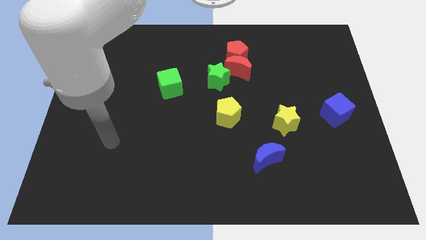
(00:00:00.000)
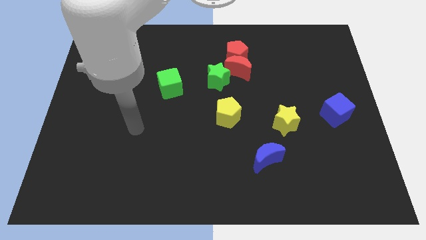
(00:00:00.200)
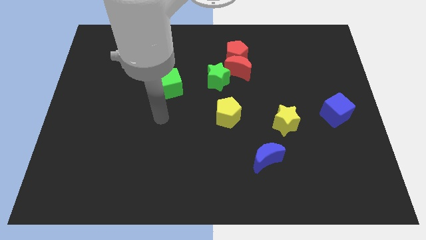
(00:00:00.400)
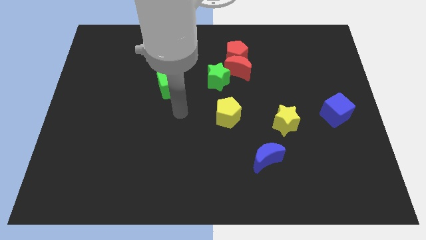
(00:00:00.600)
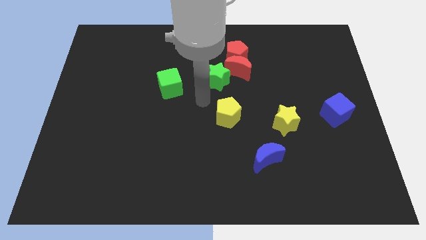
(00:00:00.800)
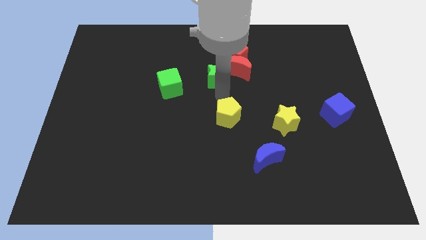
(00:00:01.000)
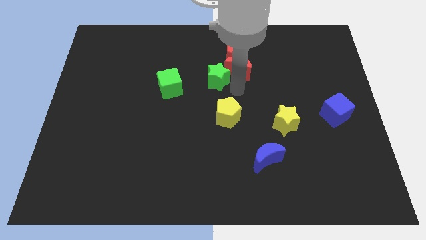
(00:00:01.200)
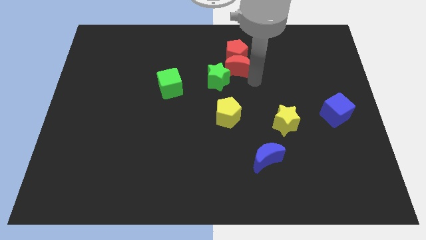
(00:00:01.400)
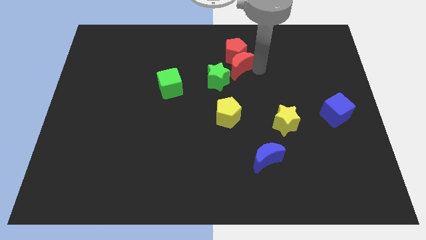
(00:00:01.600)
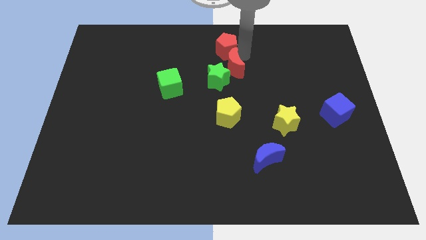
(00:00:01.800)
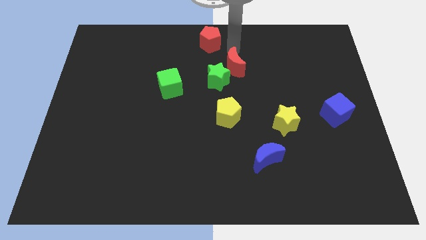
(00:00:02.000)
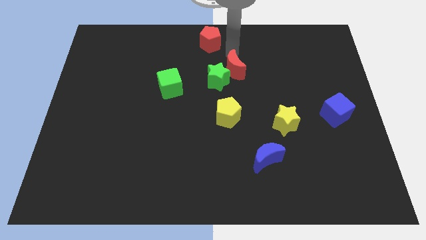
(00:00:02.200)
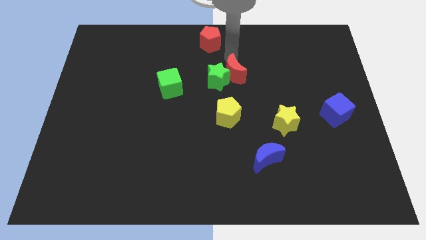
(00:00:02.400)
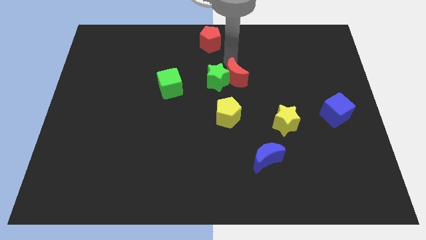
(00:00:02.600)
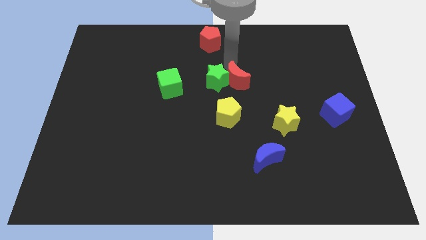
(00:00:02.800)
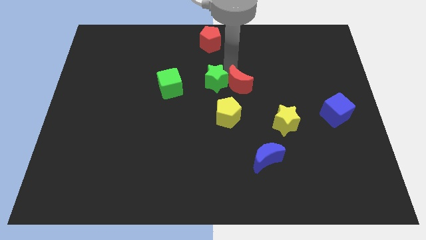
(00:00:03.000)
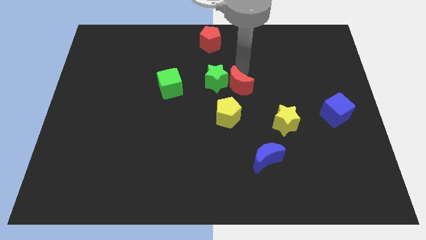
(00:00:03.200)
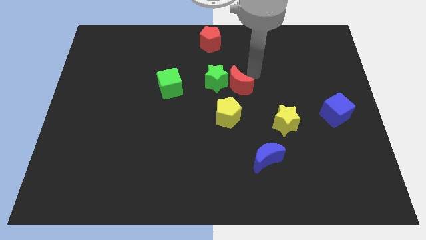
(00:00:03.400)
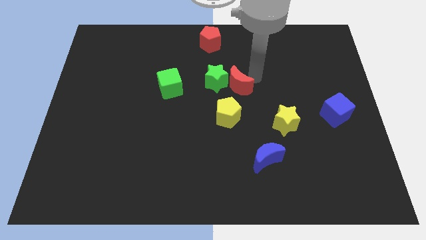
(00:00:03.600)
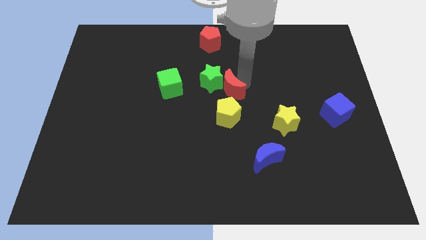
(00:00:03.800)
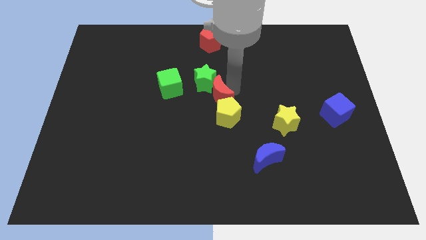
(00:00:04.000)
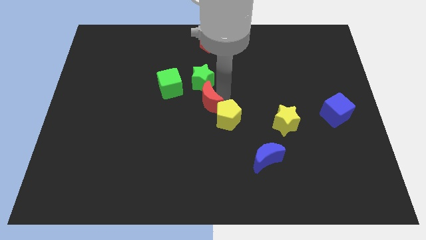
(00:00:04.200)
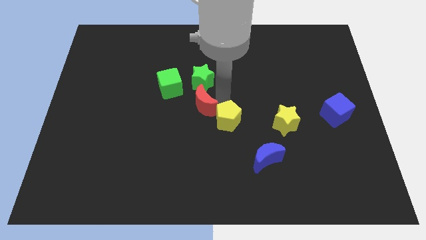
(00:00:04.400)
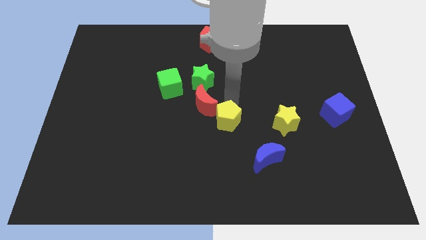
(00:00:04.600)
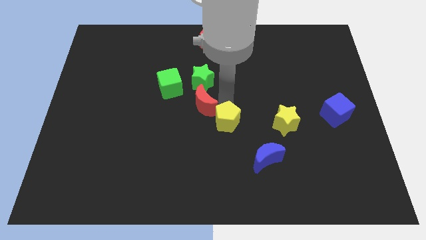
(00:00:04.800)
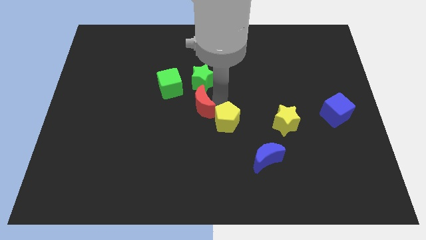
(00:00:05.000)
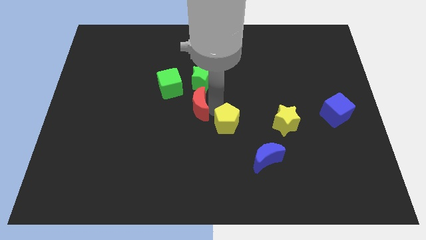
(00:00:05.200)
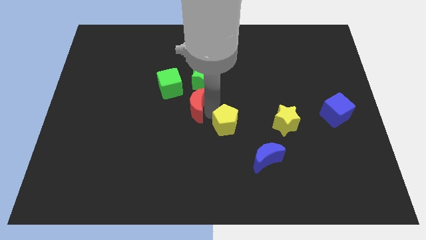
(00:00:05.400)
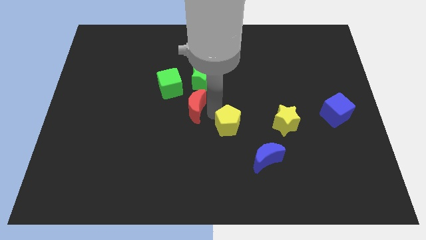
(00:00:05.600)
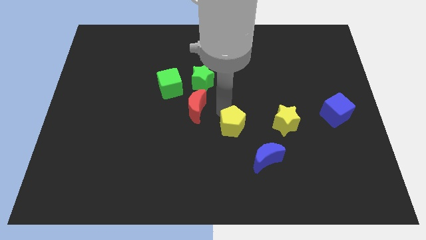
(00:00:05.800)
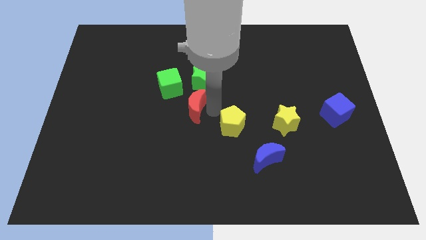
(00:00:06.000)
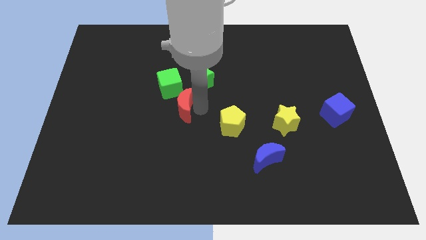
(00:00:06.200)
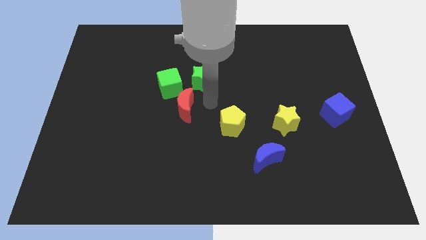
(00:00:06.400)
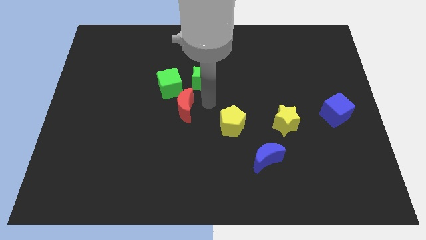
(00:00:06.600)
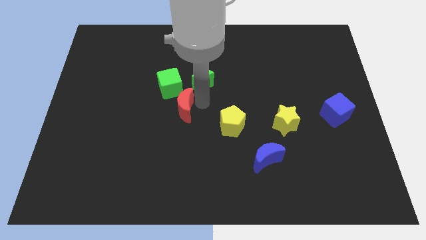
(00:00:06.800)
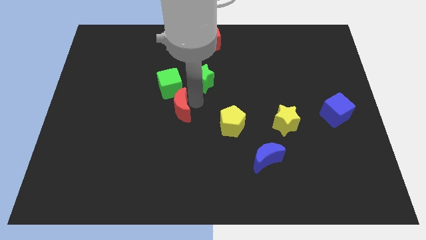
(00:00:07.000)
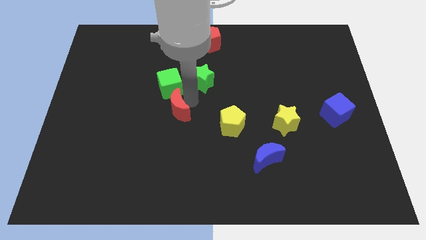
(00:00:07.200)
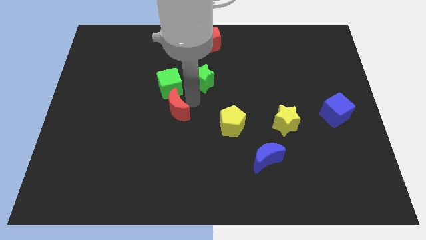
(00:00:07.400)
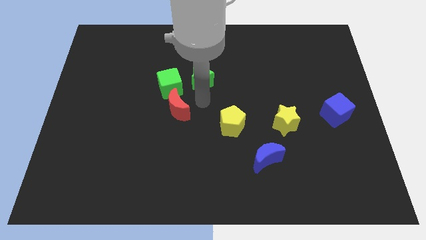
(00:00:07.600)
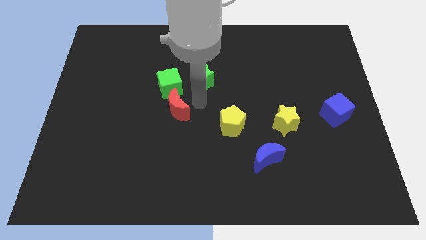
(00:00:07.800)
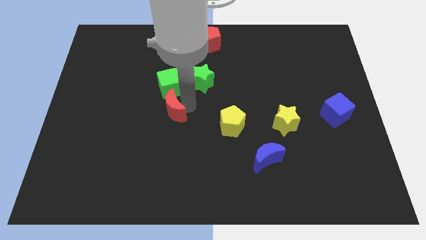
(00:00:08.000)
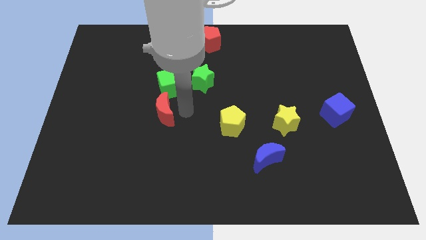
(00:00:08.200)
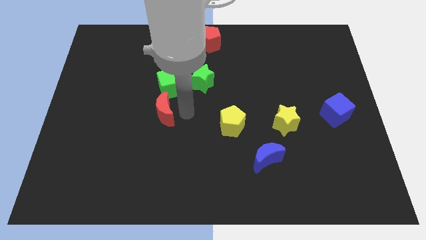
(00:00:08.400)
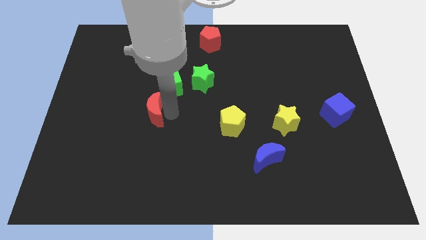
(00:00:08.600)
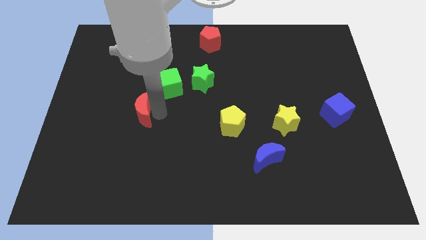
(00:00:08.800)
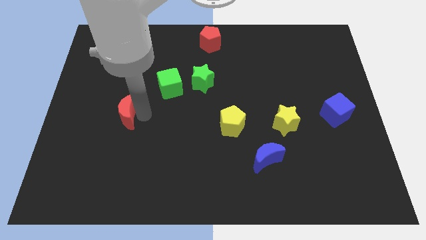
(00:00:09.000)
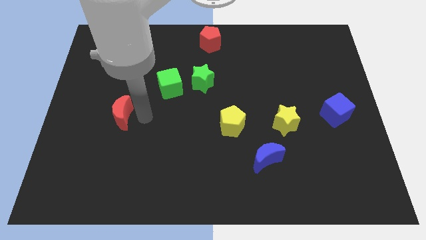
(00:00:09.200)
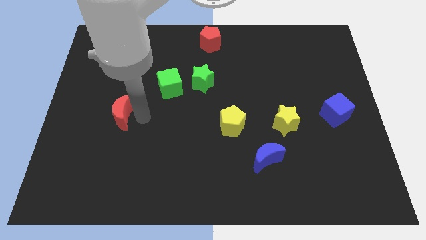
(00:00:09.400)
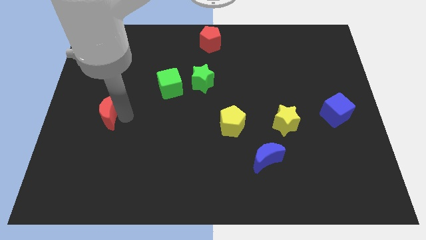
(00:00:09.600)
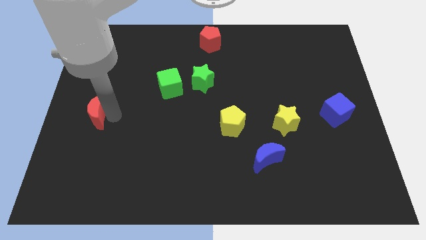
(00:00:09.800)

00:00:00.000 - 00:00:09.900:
push the red moon to the center left

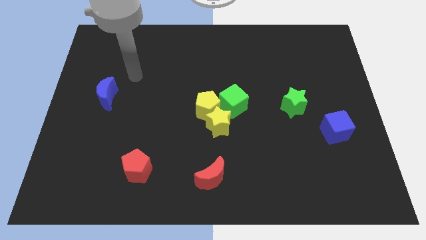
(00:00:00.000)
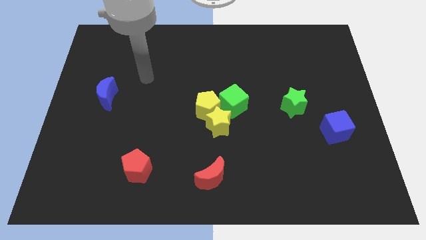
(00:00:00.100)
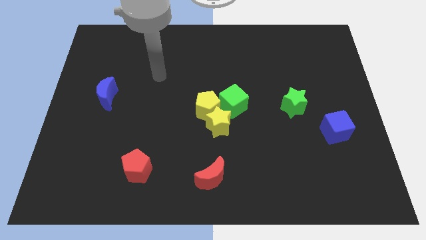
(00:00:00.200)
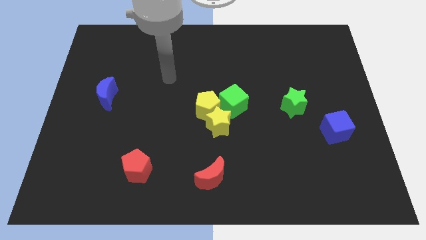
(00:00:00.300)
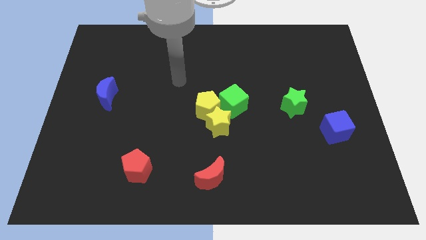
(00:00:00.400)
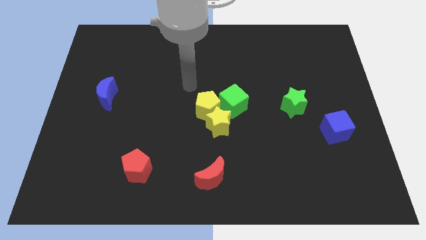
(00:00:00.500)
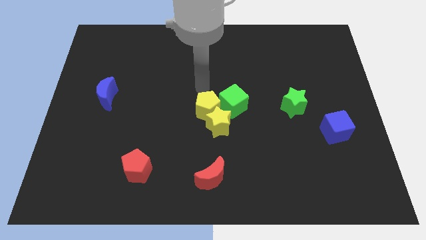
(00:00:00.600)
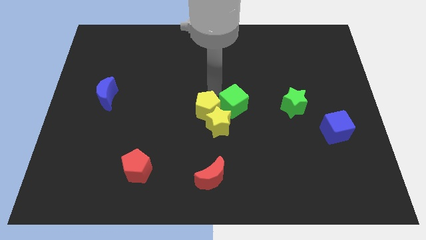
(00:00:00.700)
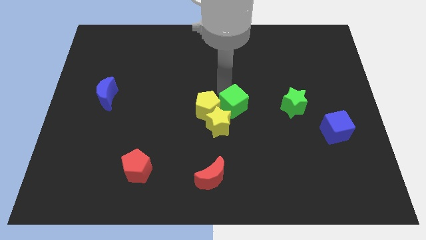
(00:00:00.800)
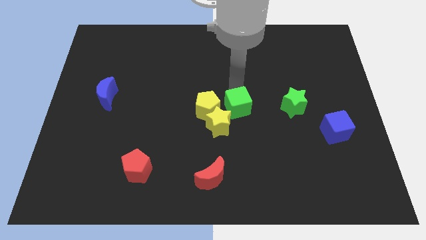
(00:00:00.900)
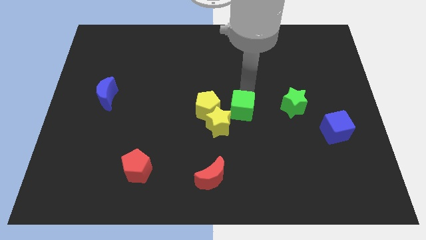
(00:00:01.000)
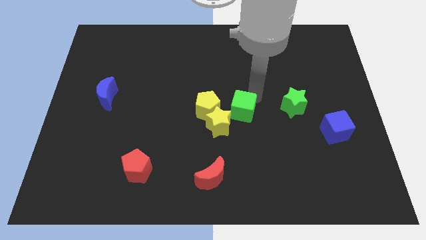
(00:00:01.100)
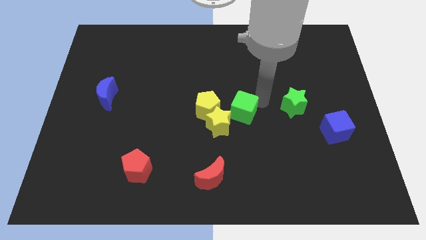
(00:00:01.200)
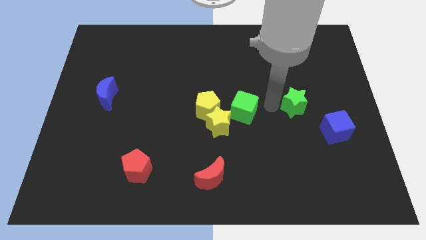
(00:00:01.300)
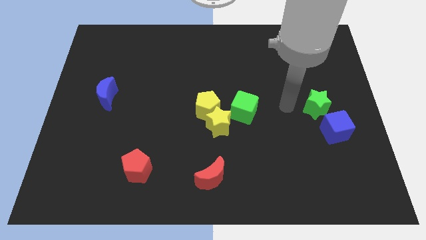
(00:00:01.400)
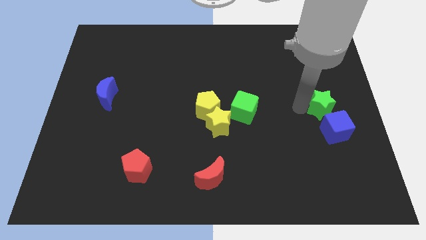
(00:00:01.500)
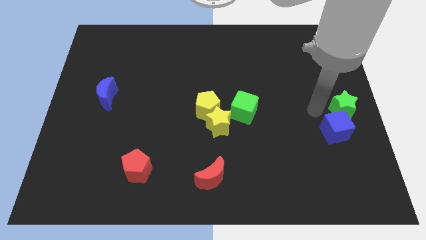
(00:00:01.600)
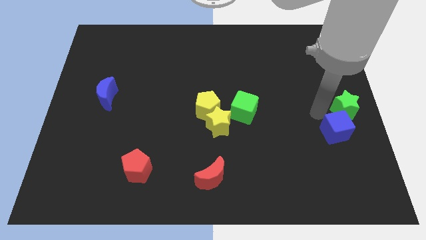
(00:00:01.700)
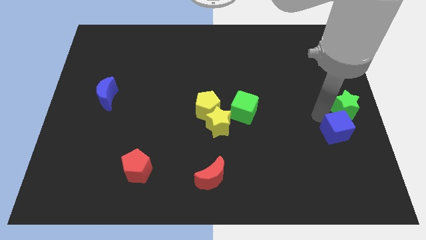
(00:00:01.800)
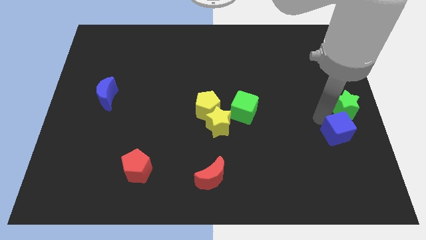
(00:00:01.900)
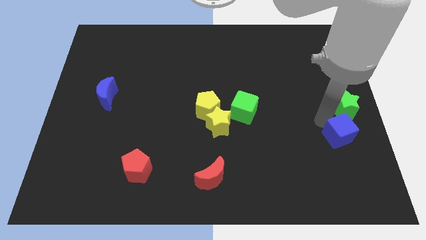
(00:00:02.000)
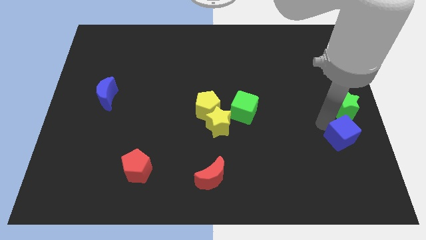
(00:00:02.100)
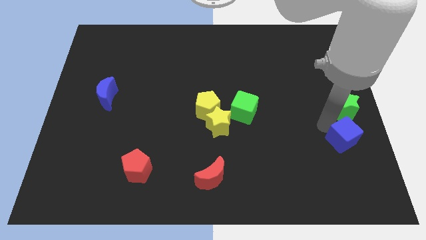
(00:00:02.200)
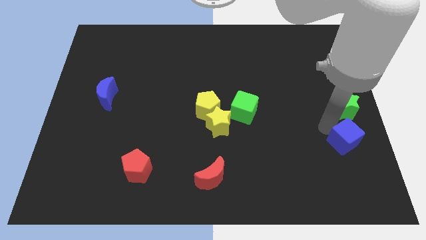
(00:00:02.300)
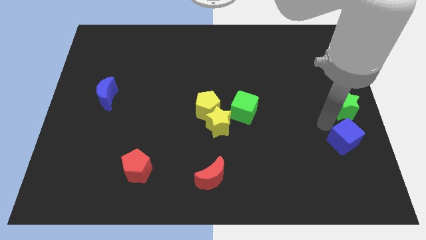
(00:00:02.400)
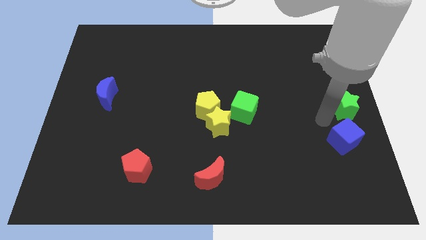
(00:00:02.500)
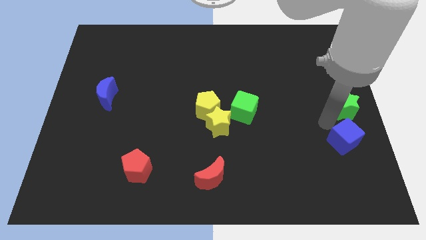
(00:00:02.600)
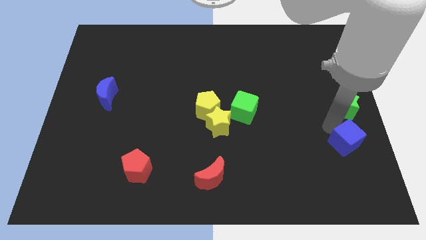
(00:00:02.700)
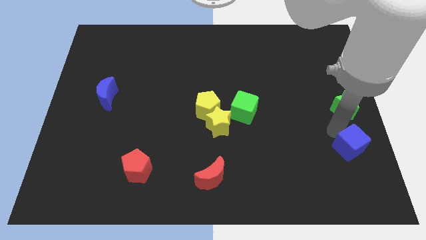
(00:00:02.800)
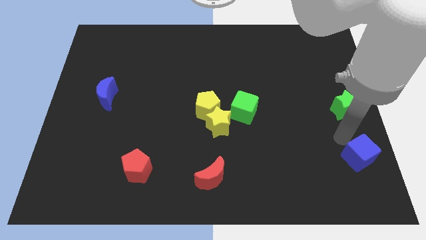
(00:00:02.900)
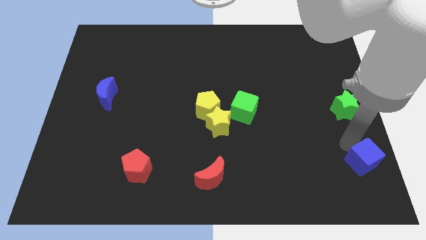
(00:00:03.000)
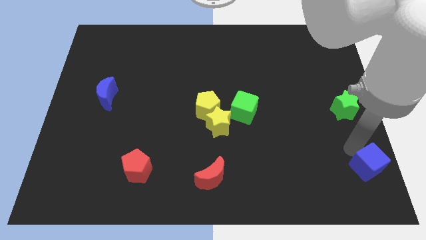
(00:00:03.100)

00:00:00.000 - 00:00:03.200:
push the blue cube to the bottom right corner
